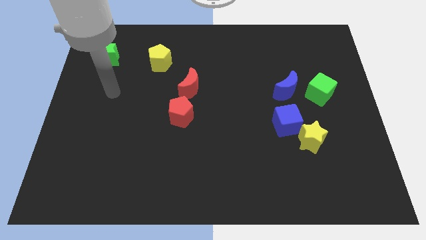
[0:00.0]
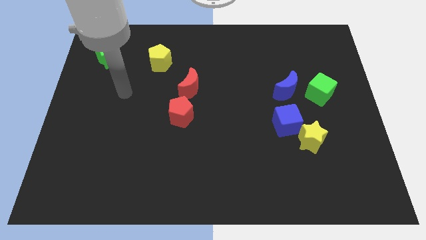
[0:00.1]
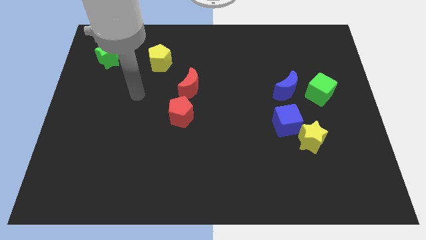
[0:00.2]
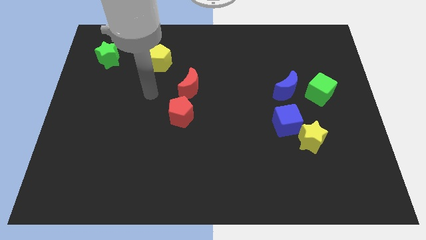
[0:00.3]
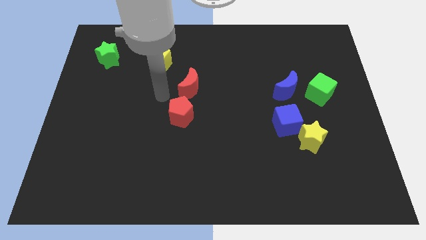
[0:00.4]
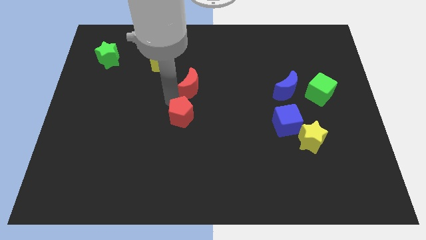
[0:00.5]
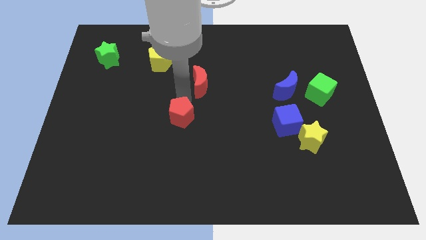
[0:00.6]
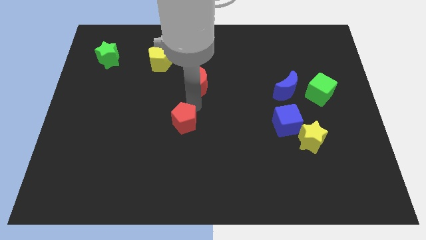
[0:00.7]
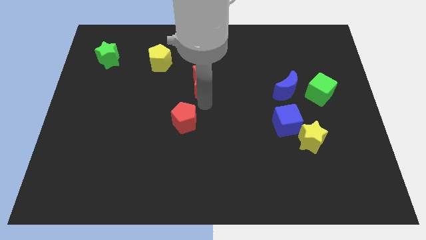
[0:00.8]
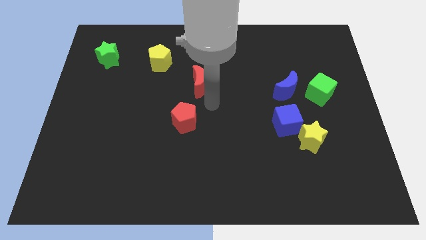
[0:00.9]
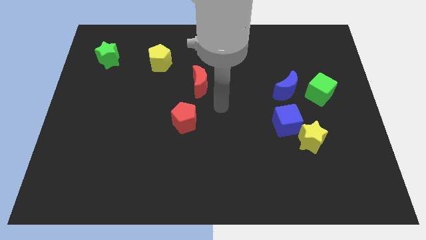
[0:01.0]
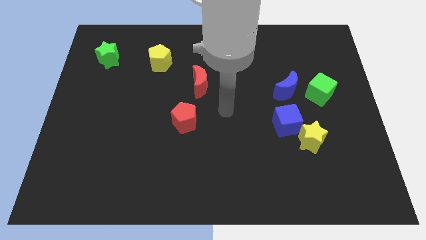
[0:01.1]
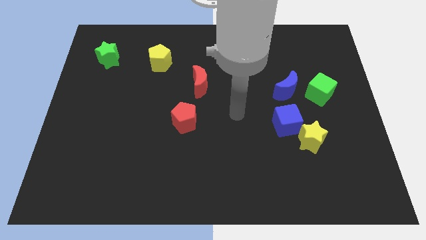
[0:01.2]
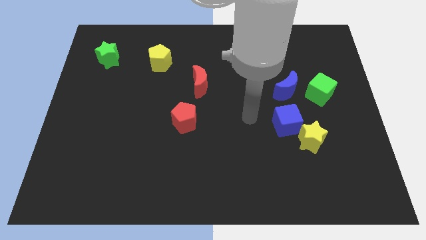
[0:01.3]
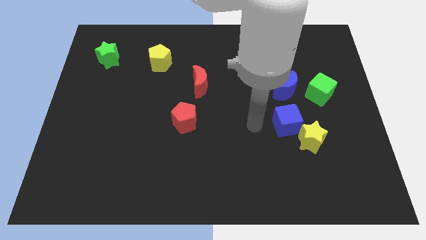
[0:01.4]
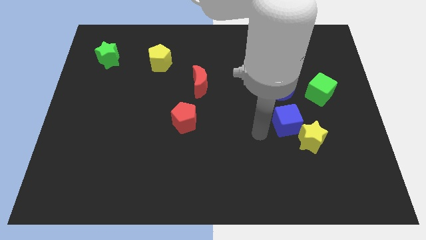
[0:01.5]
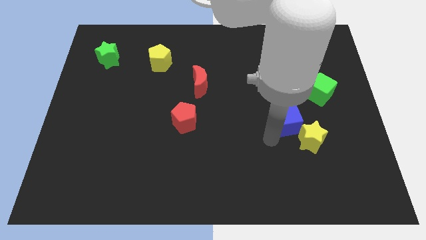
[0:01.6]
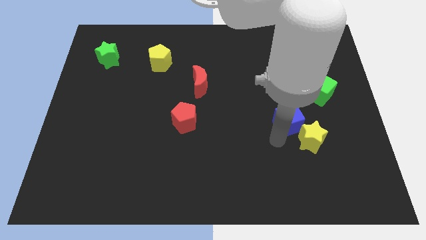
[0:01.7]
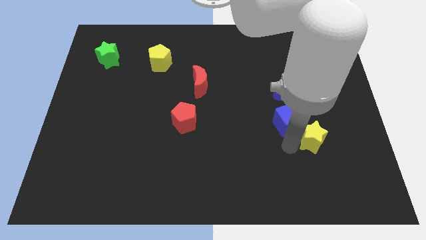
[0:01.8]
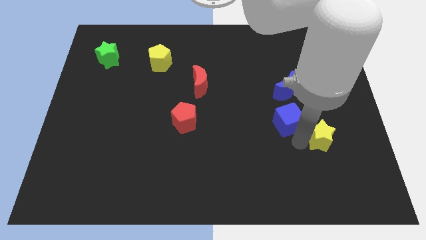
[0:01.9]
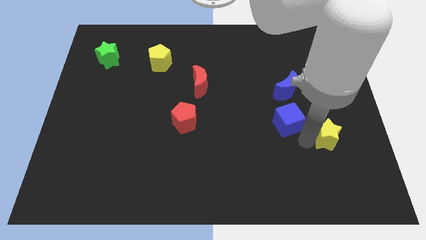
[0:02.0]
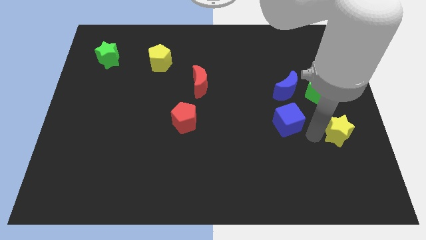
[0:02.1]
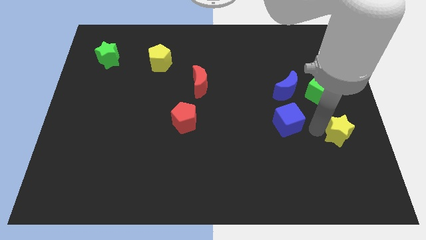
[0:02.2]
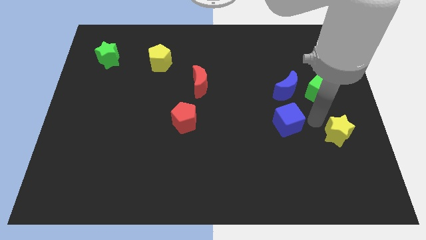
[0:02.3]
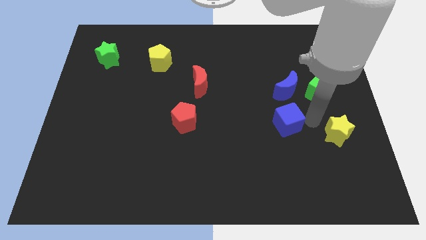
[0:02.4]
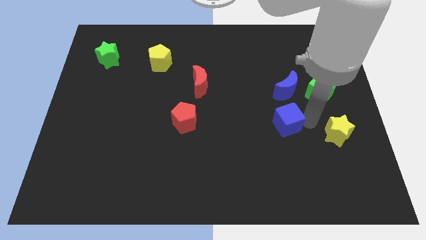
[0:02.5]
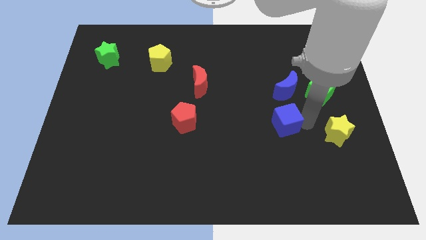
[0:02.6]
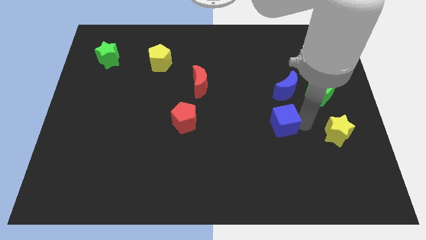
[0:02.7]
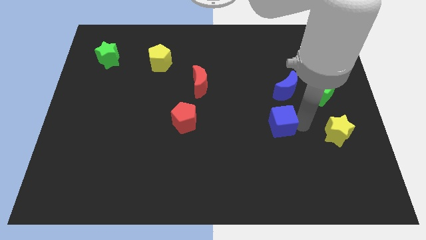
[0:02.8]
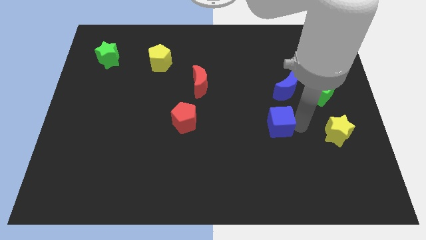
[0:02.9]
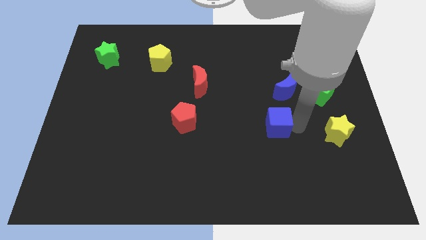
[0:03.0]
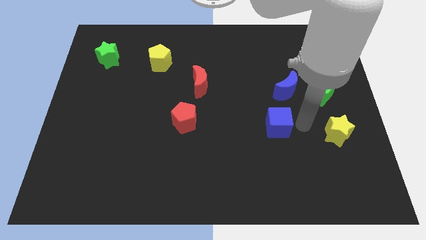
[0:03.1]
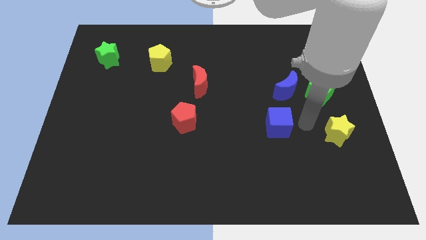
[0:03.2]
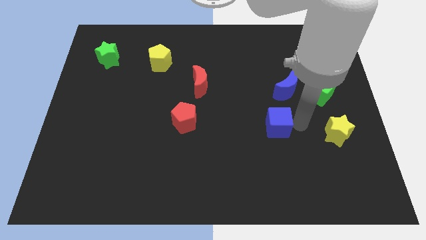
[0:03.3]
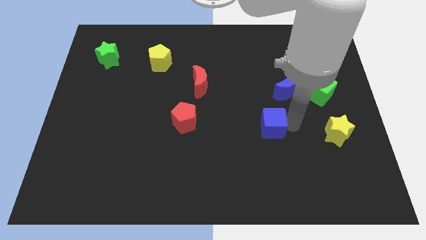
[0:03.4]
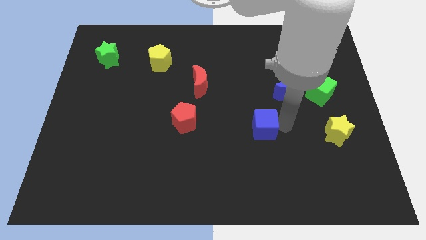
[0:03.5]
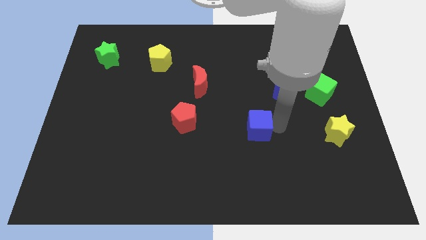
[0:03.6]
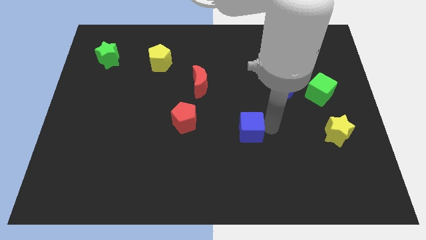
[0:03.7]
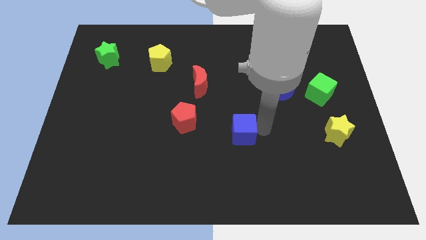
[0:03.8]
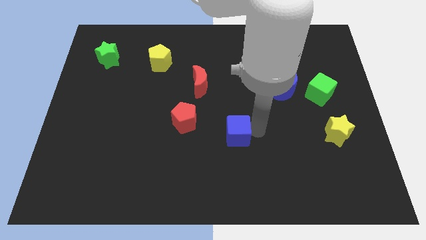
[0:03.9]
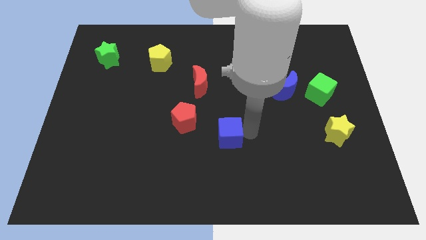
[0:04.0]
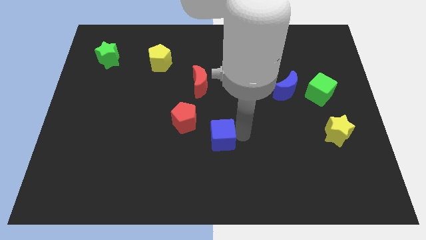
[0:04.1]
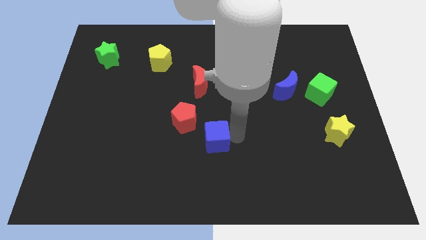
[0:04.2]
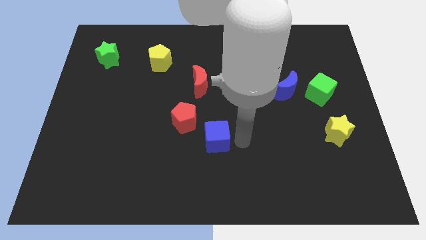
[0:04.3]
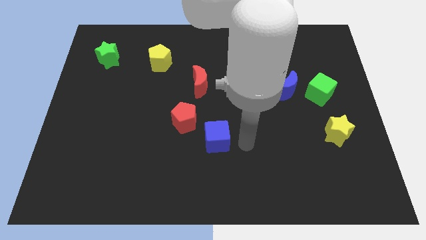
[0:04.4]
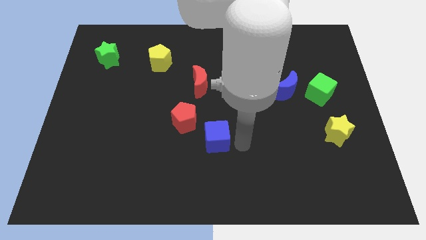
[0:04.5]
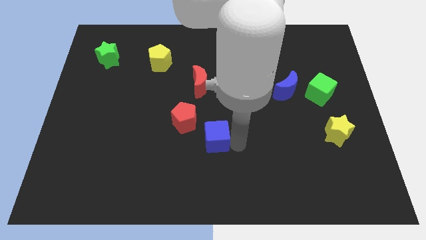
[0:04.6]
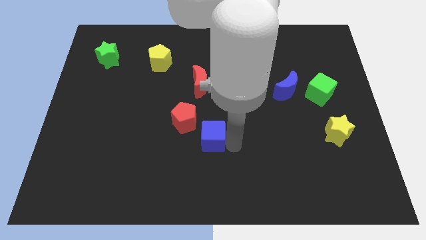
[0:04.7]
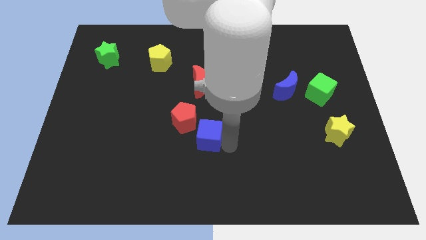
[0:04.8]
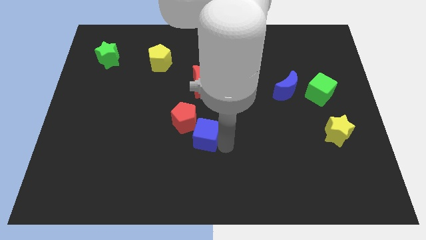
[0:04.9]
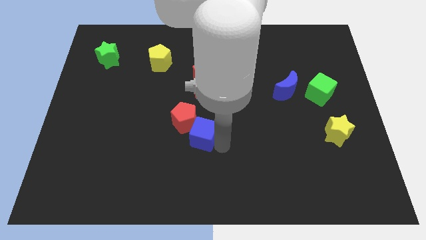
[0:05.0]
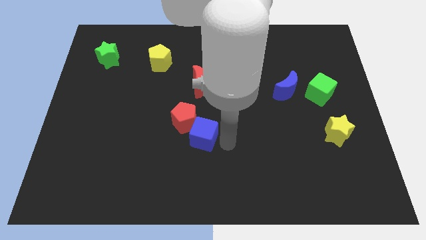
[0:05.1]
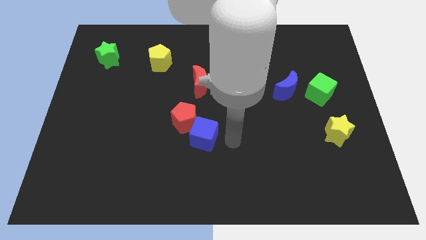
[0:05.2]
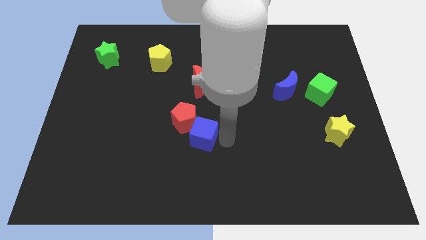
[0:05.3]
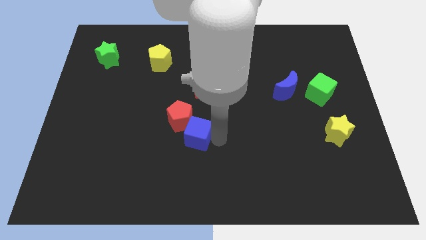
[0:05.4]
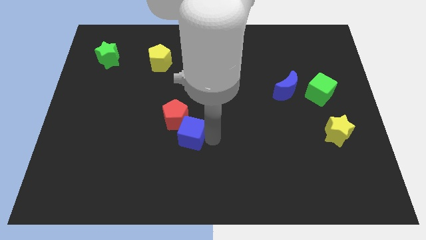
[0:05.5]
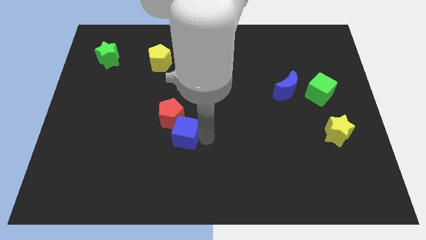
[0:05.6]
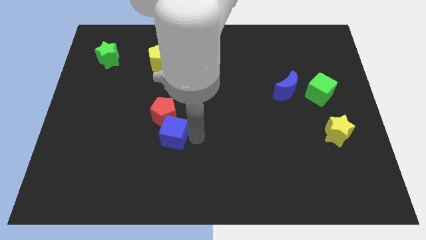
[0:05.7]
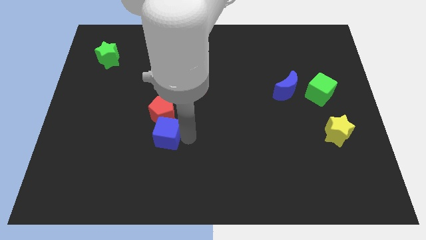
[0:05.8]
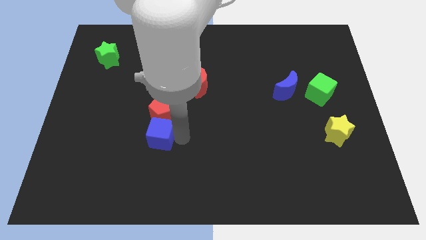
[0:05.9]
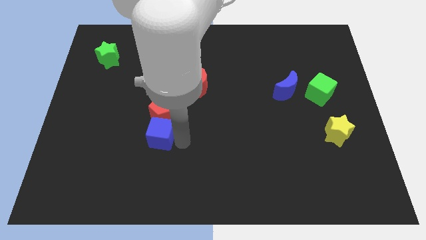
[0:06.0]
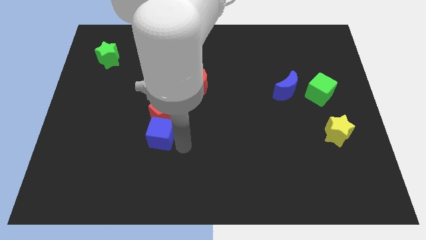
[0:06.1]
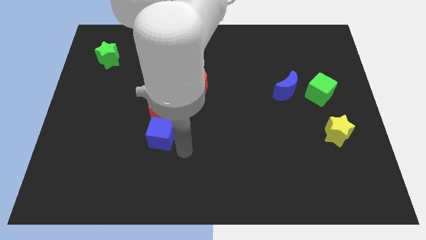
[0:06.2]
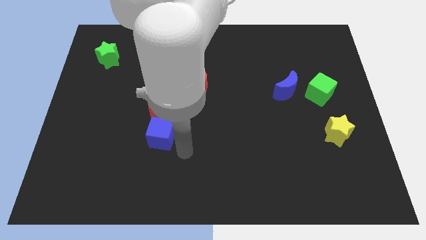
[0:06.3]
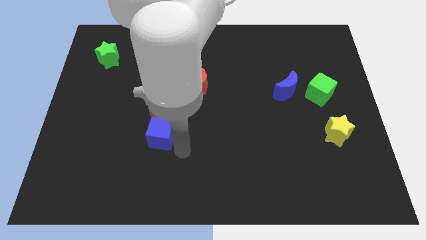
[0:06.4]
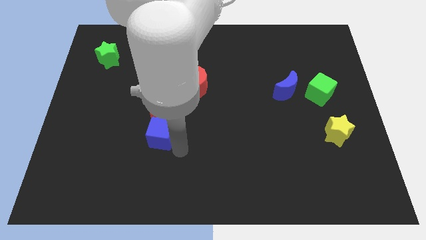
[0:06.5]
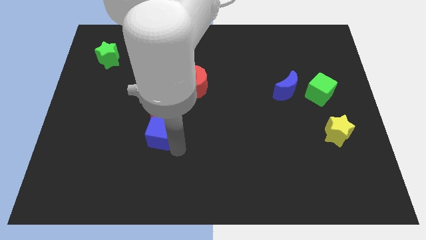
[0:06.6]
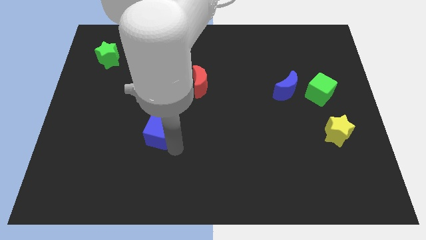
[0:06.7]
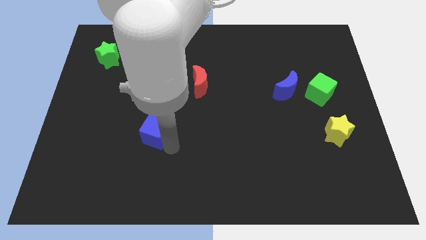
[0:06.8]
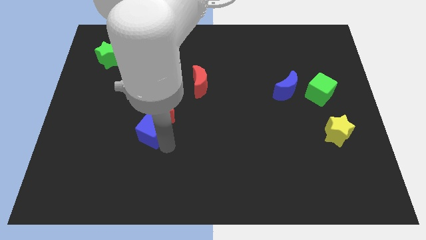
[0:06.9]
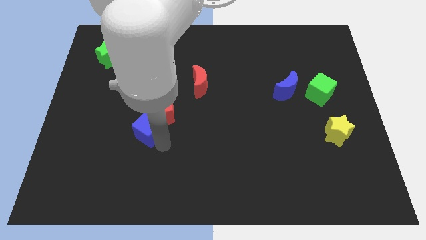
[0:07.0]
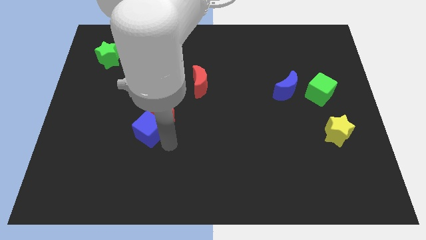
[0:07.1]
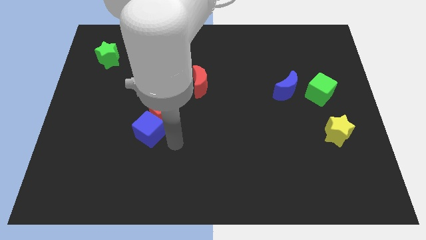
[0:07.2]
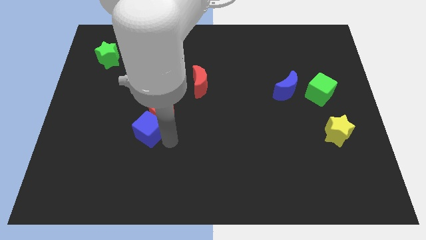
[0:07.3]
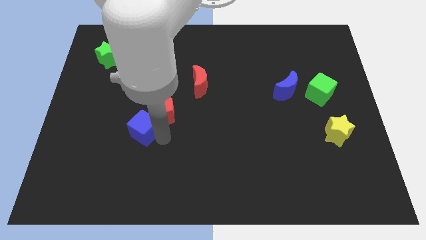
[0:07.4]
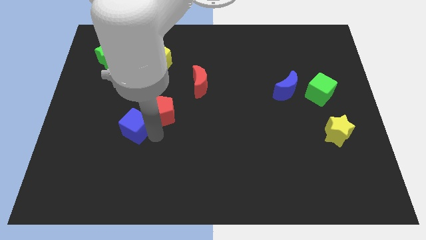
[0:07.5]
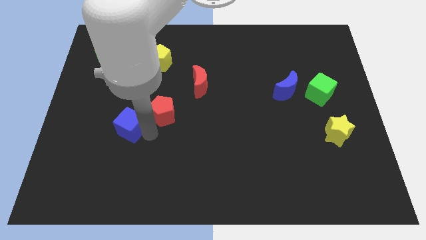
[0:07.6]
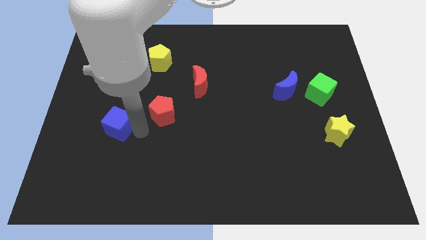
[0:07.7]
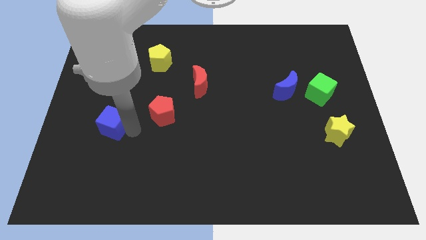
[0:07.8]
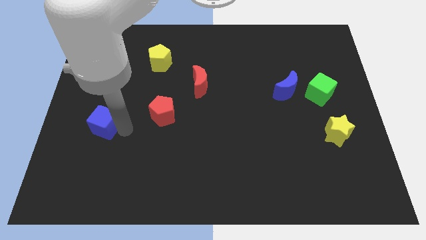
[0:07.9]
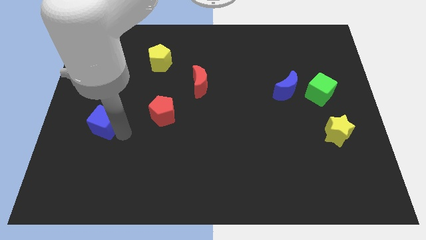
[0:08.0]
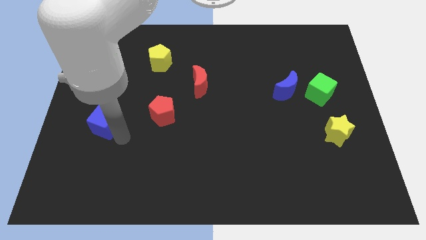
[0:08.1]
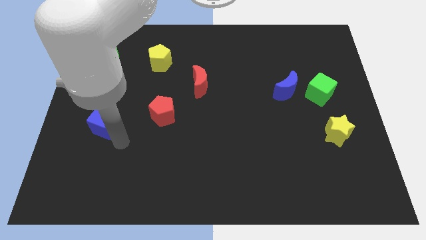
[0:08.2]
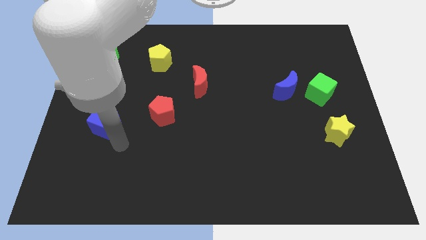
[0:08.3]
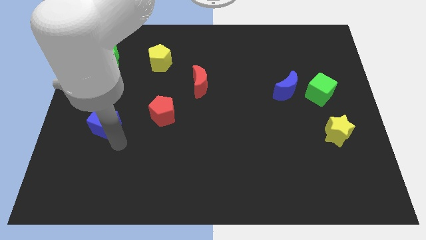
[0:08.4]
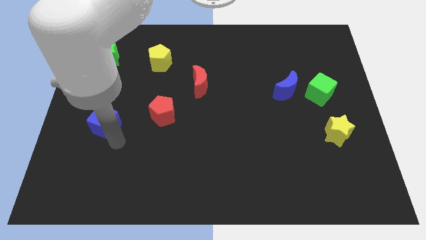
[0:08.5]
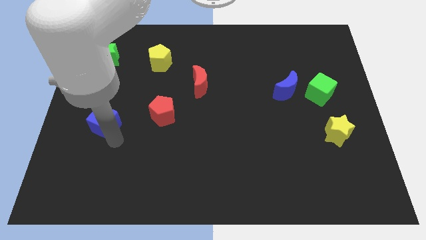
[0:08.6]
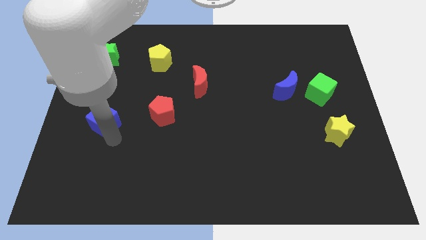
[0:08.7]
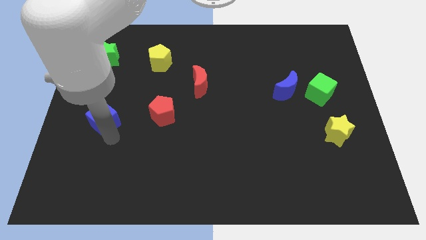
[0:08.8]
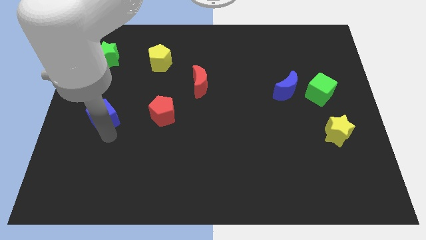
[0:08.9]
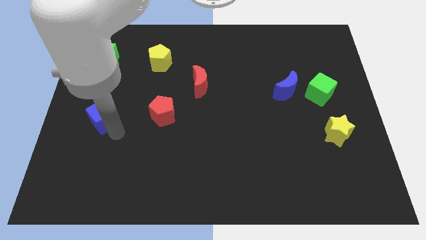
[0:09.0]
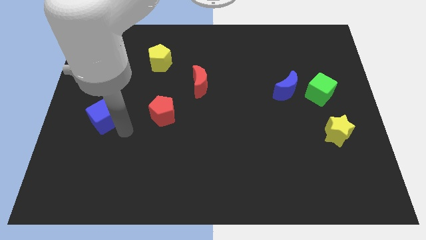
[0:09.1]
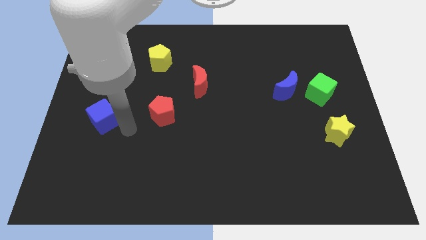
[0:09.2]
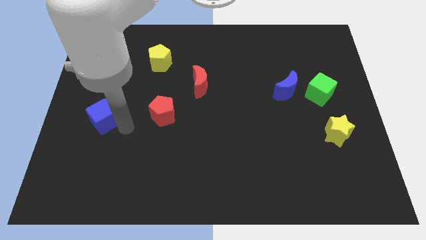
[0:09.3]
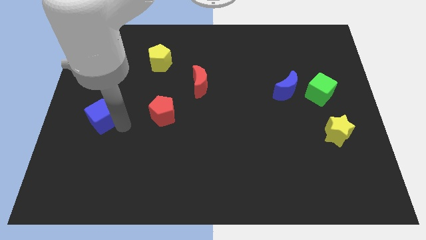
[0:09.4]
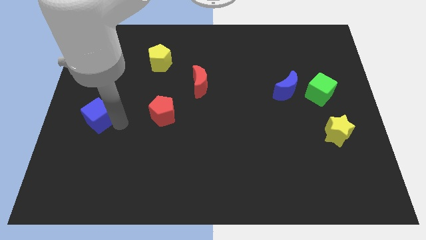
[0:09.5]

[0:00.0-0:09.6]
push the blue cube to the left side of the board
